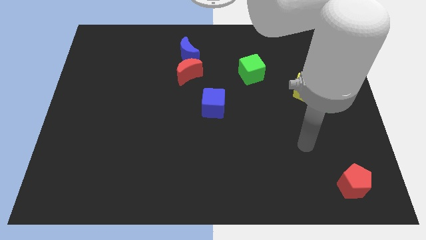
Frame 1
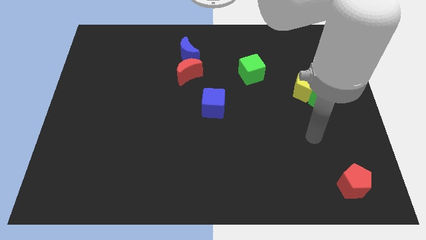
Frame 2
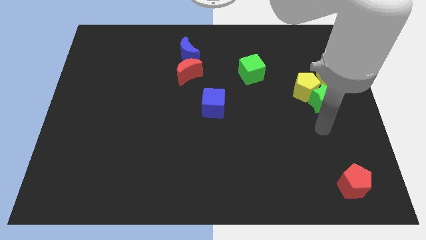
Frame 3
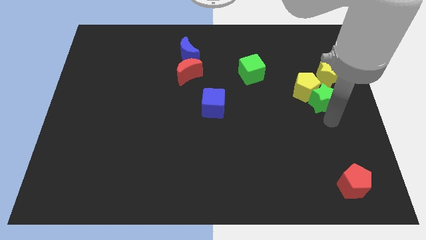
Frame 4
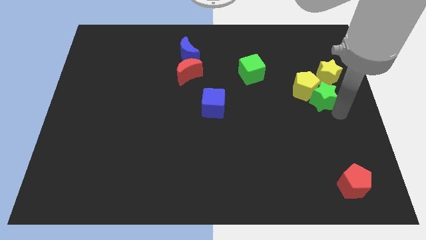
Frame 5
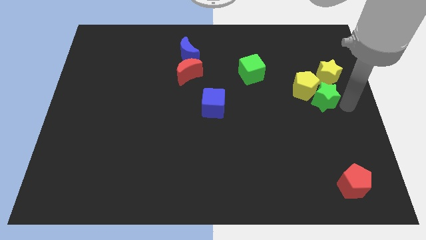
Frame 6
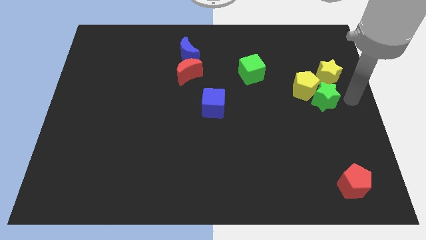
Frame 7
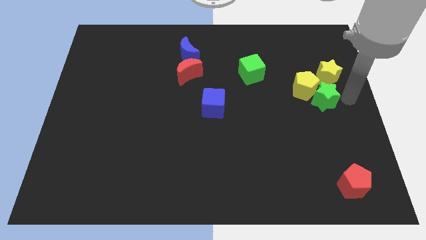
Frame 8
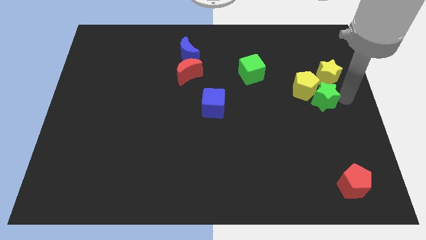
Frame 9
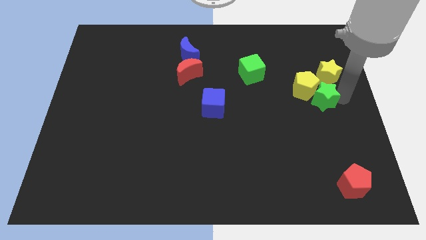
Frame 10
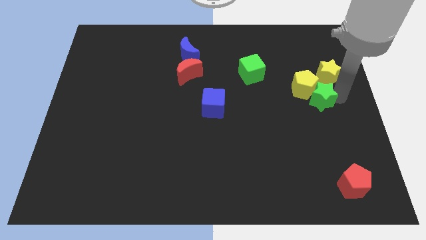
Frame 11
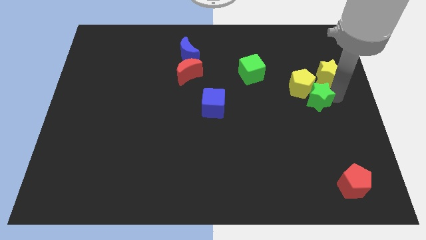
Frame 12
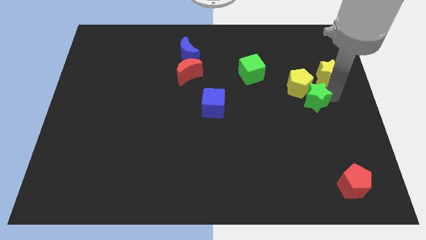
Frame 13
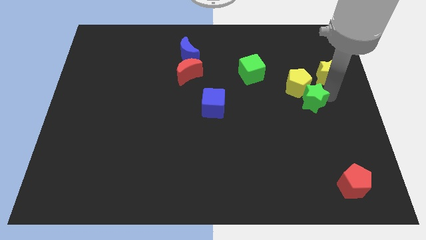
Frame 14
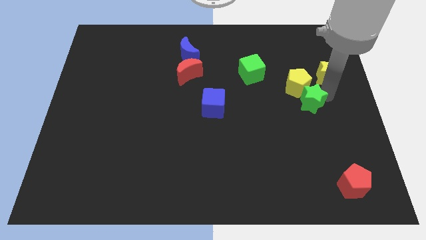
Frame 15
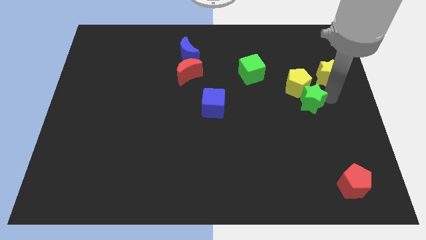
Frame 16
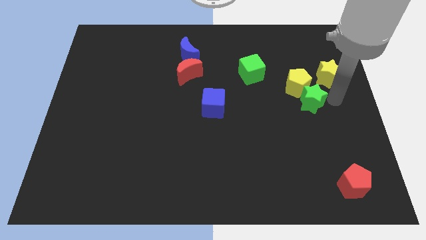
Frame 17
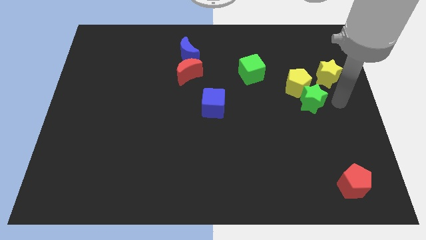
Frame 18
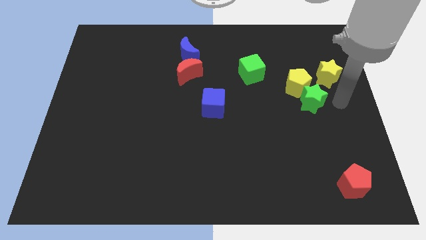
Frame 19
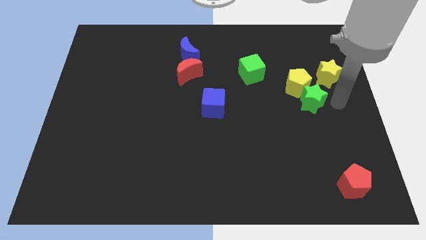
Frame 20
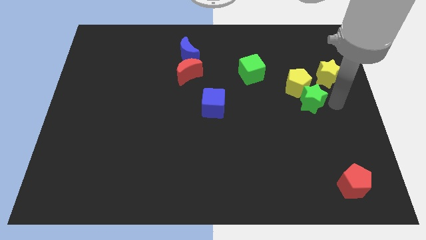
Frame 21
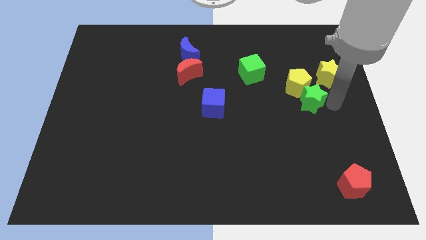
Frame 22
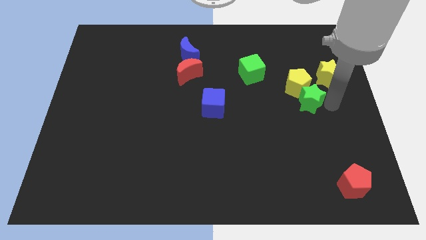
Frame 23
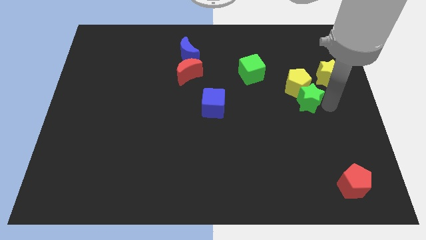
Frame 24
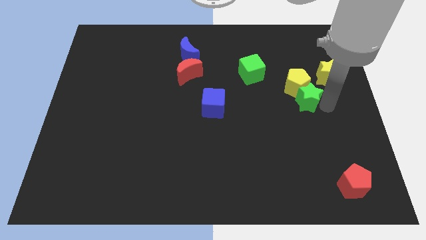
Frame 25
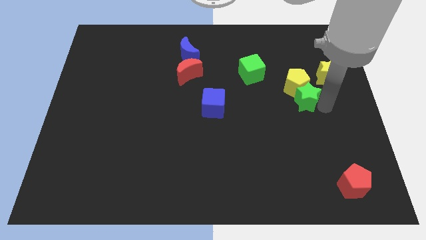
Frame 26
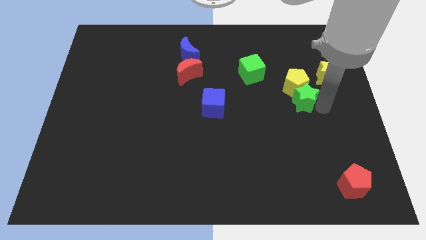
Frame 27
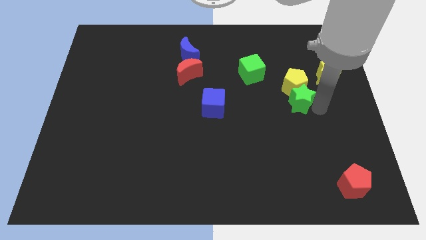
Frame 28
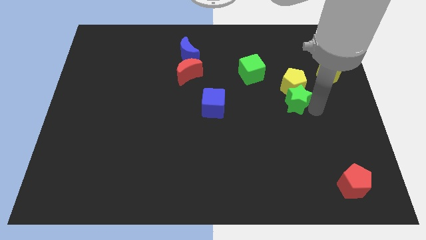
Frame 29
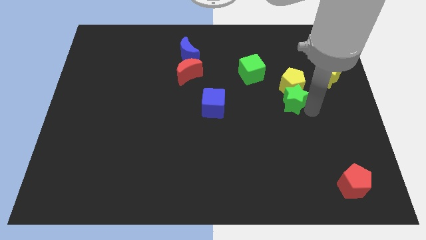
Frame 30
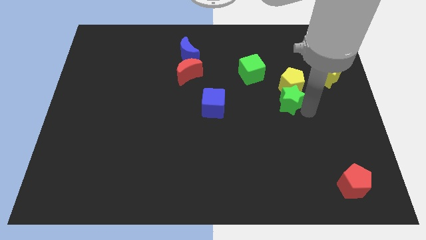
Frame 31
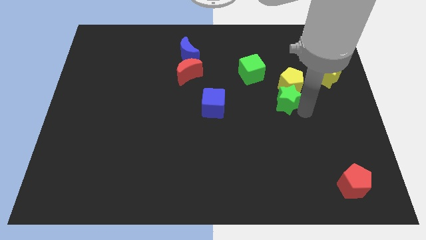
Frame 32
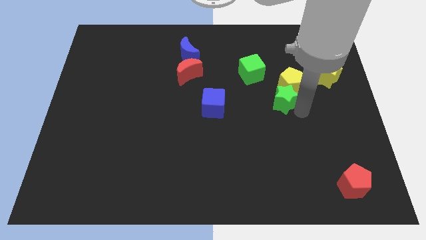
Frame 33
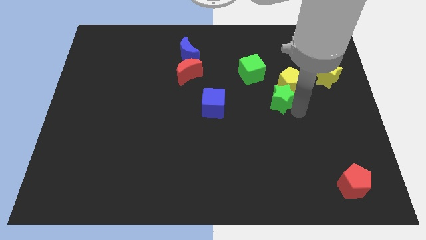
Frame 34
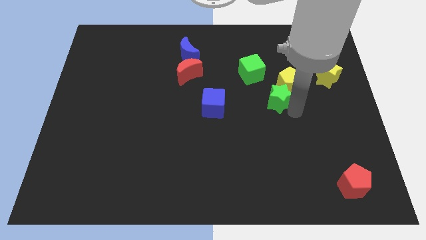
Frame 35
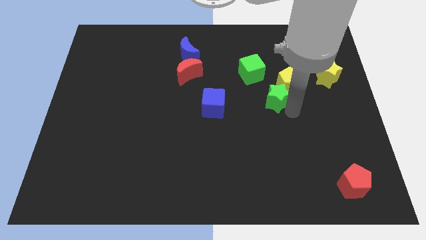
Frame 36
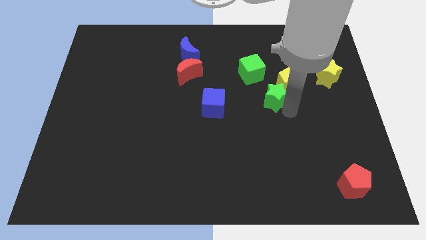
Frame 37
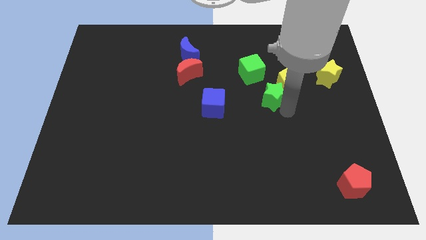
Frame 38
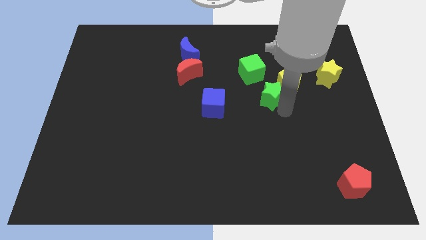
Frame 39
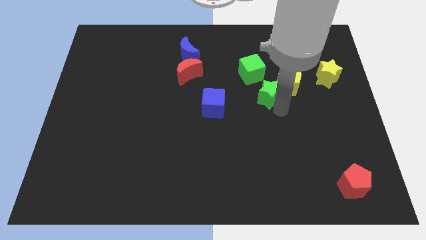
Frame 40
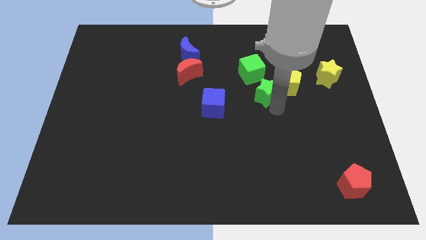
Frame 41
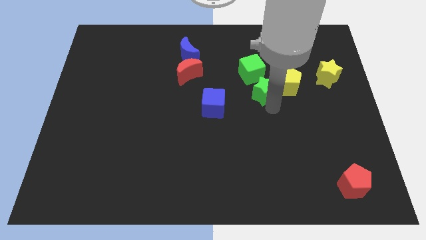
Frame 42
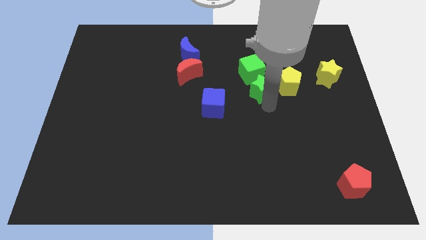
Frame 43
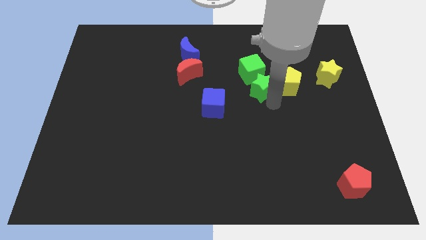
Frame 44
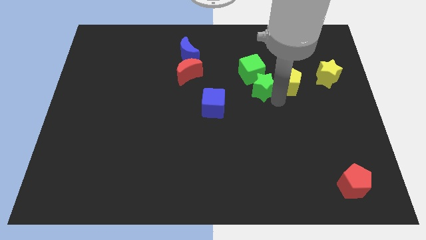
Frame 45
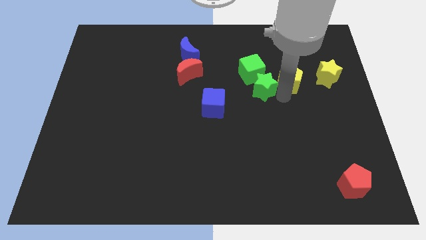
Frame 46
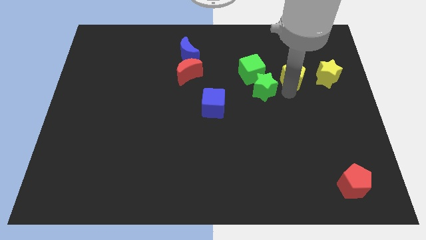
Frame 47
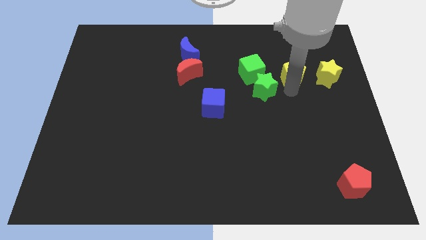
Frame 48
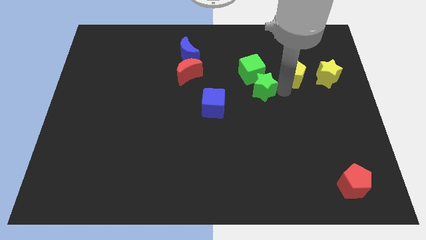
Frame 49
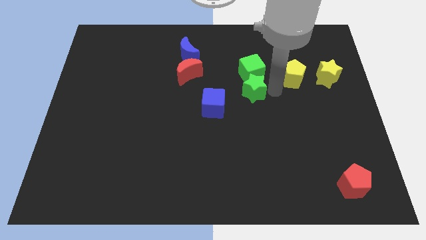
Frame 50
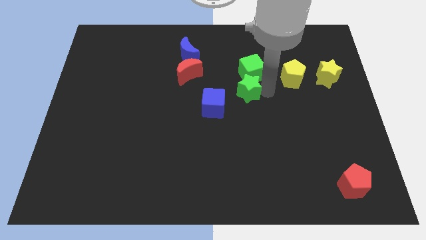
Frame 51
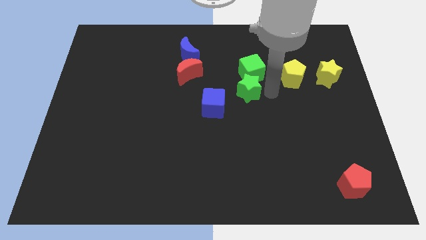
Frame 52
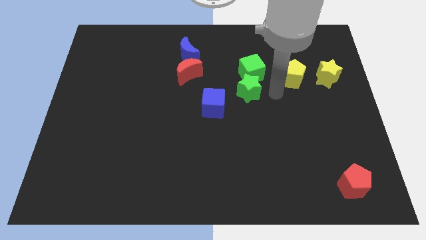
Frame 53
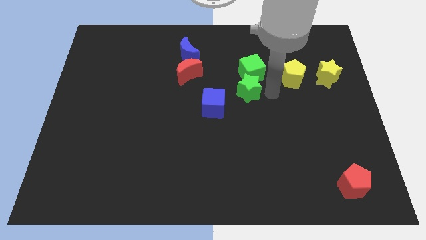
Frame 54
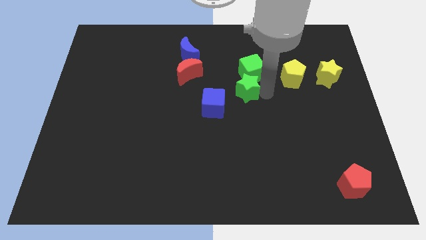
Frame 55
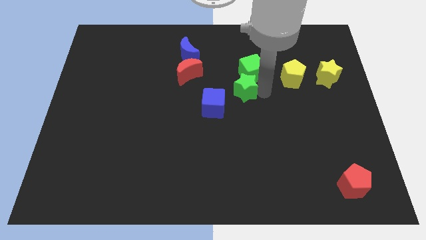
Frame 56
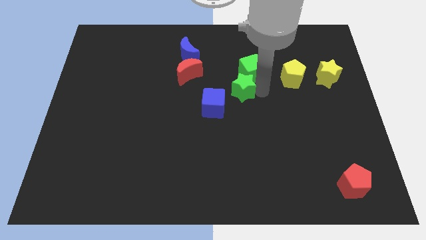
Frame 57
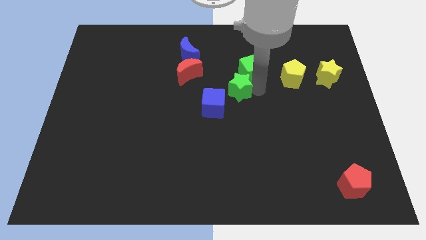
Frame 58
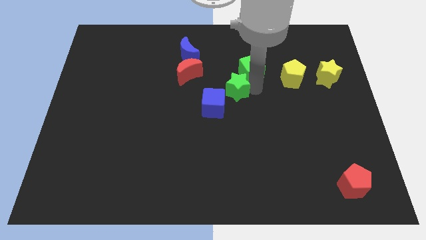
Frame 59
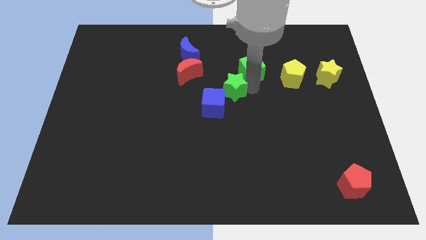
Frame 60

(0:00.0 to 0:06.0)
slide the green star left

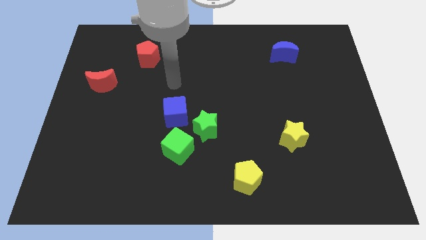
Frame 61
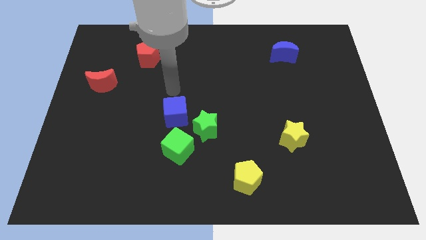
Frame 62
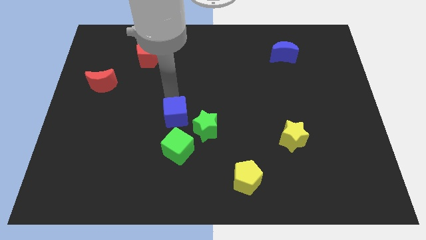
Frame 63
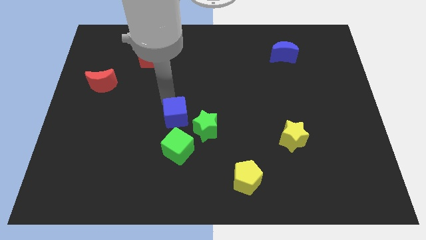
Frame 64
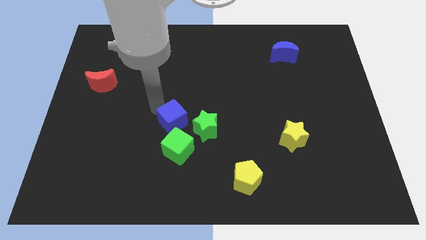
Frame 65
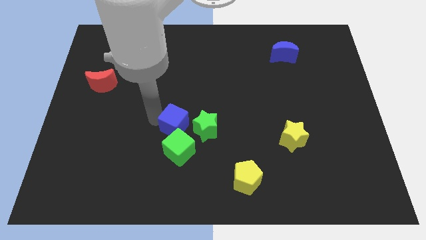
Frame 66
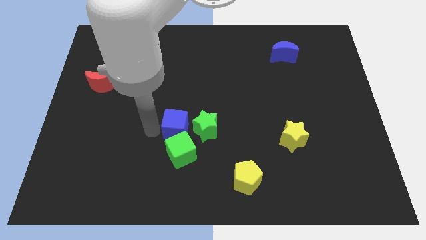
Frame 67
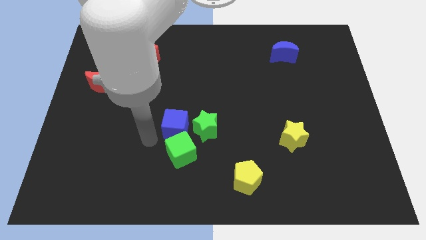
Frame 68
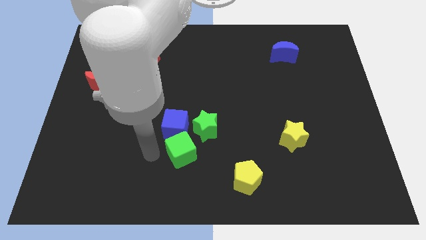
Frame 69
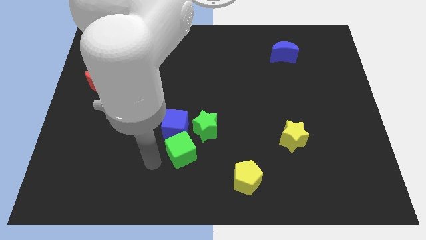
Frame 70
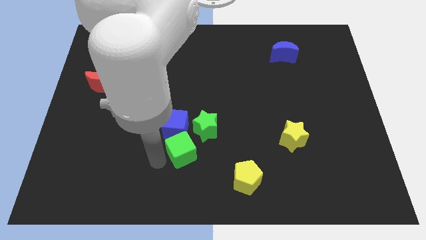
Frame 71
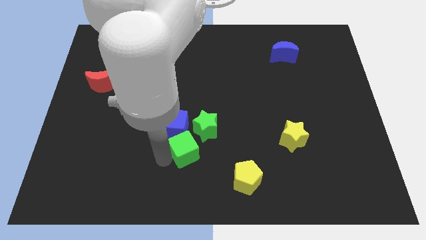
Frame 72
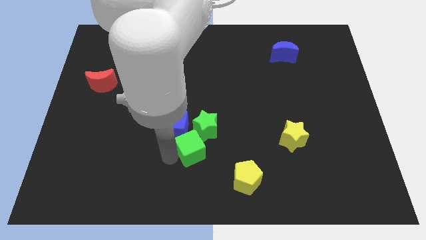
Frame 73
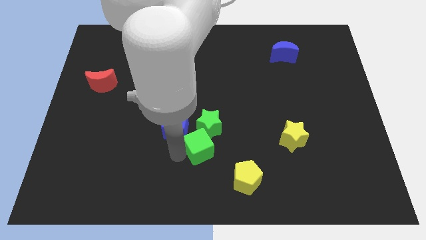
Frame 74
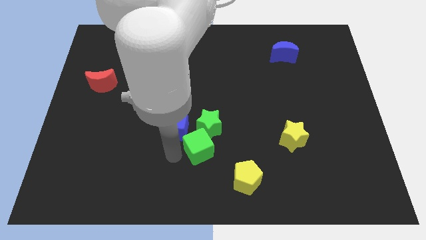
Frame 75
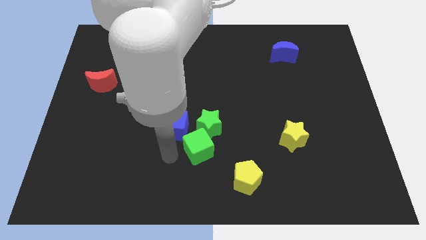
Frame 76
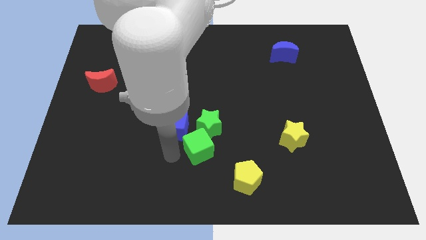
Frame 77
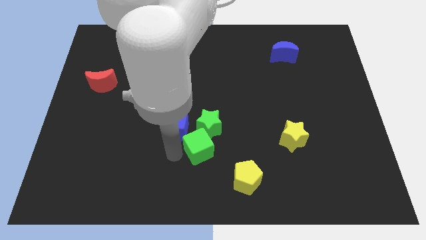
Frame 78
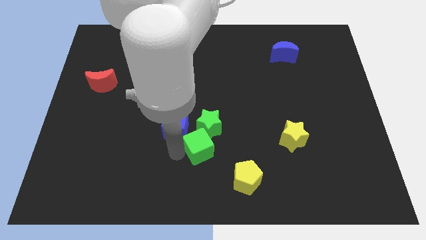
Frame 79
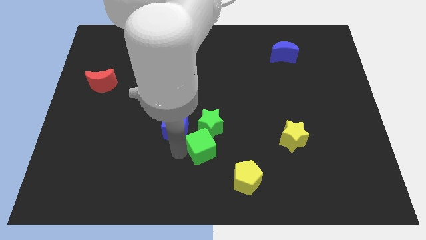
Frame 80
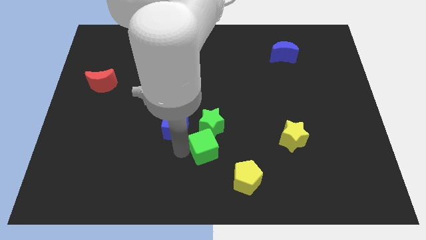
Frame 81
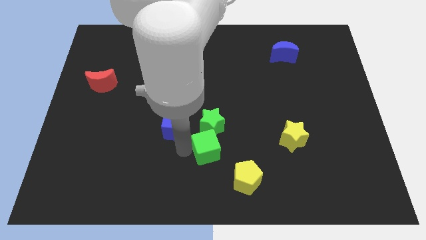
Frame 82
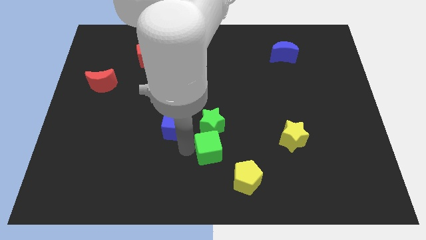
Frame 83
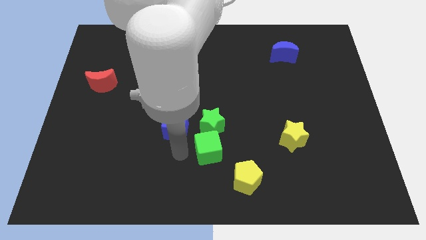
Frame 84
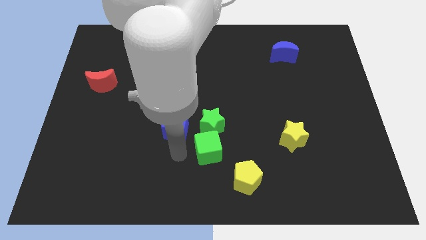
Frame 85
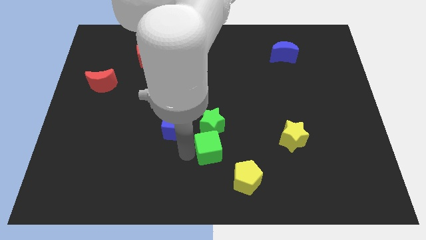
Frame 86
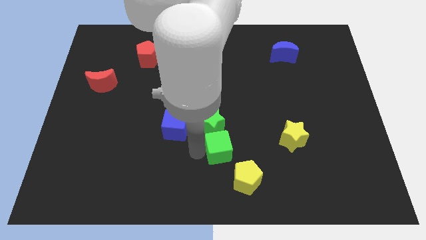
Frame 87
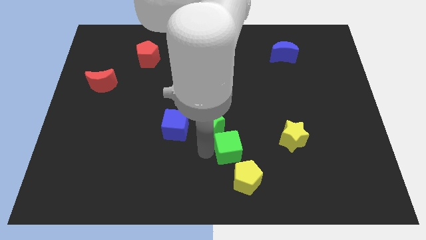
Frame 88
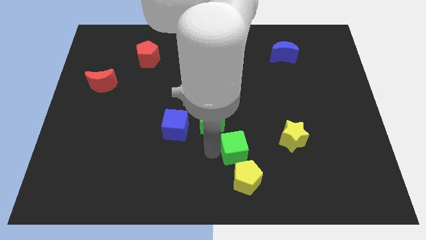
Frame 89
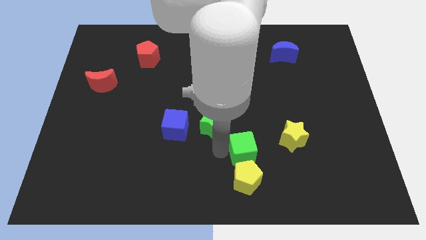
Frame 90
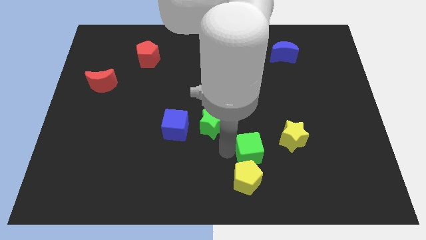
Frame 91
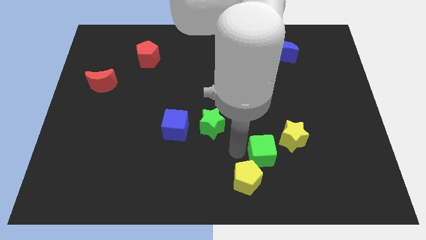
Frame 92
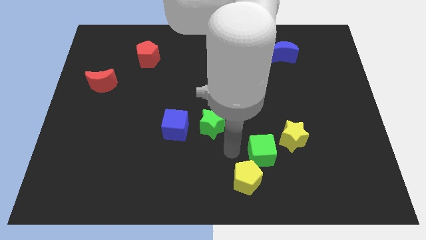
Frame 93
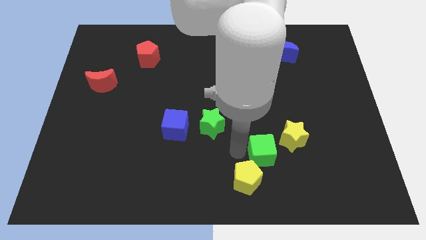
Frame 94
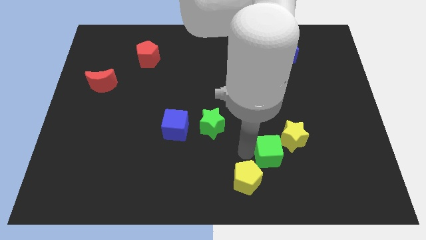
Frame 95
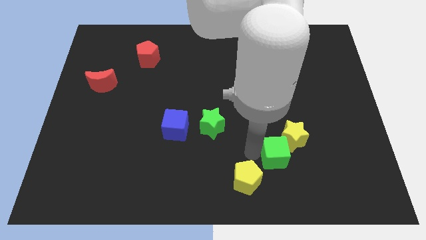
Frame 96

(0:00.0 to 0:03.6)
slide the green cube right
